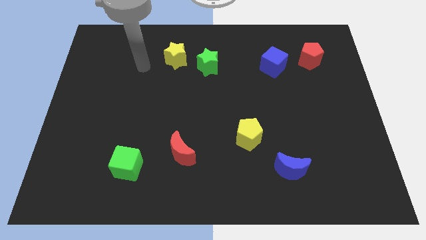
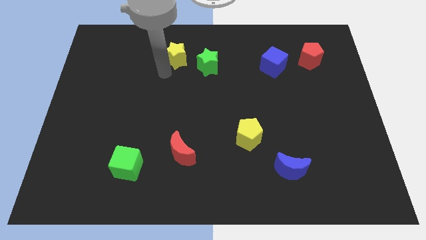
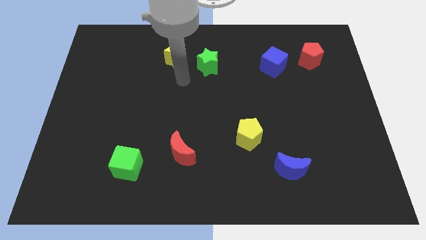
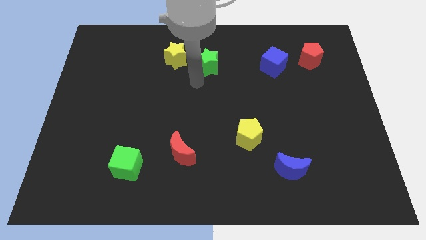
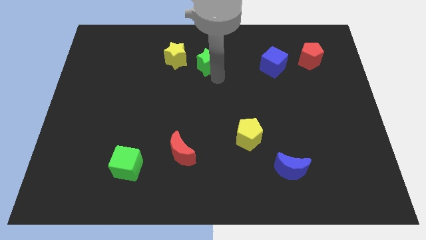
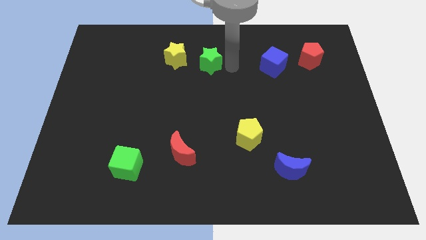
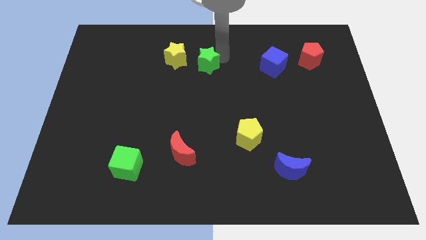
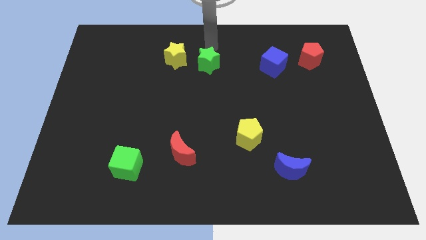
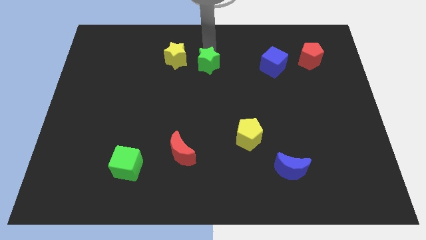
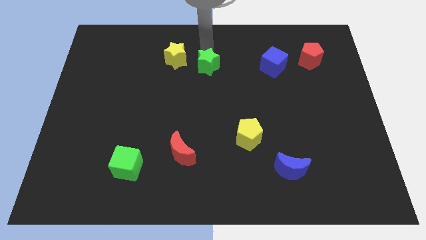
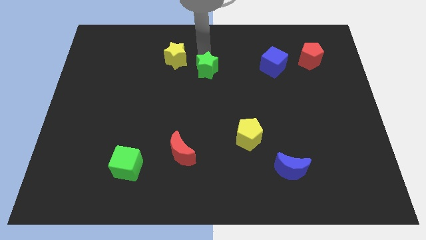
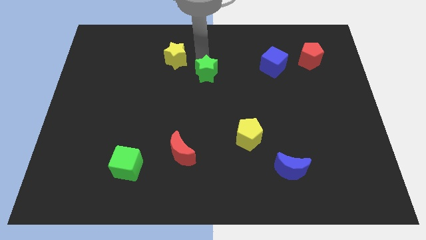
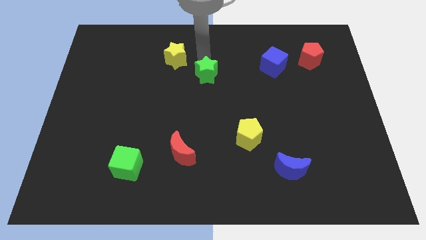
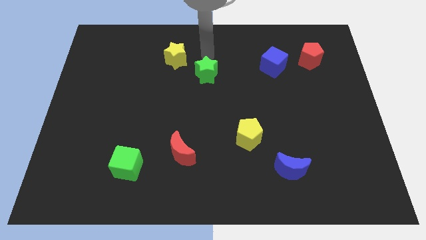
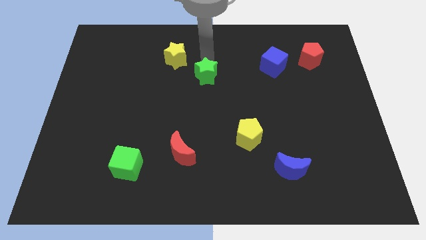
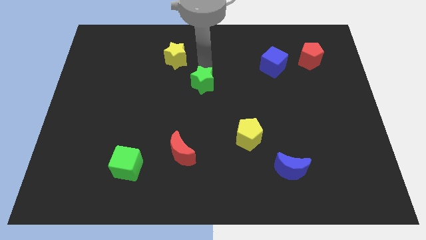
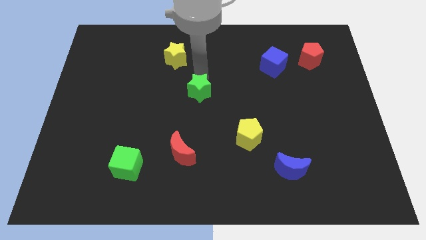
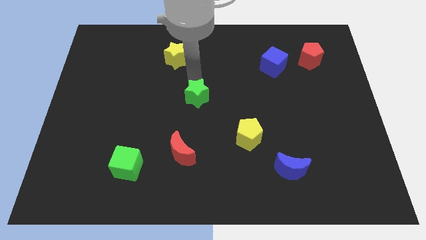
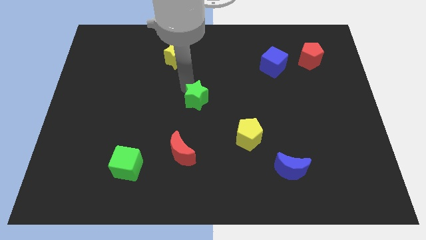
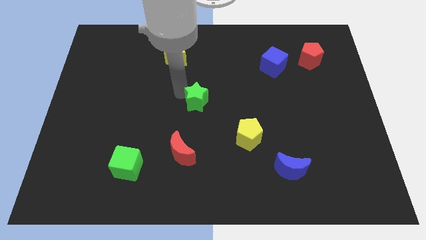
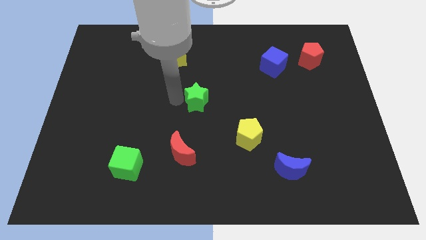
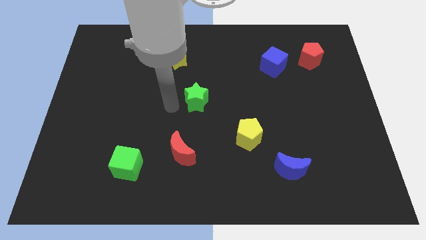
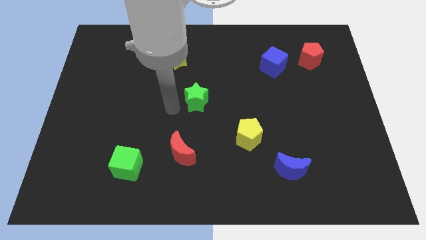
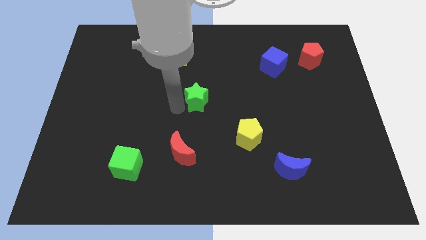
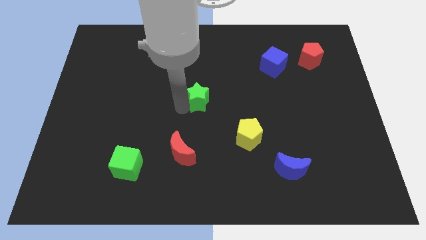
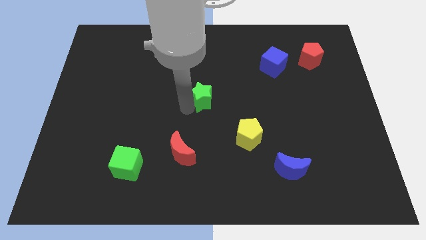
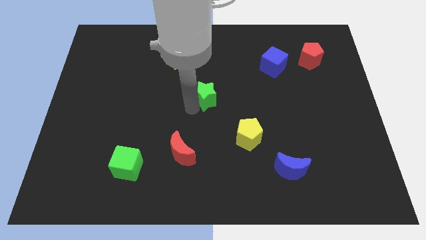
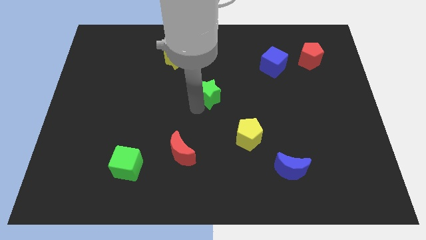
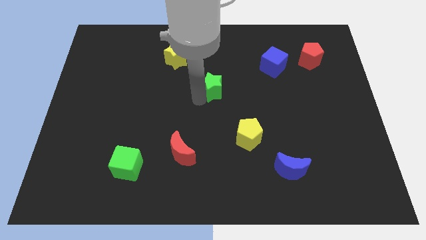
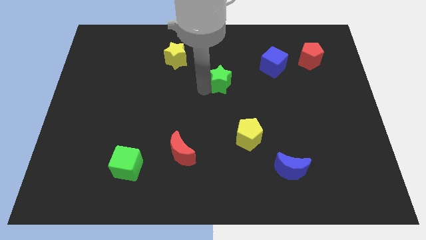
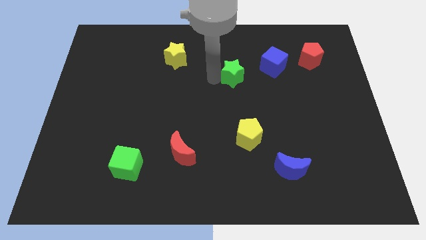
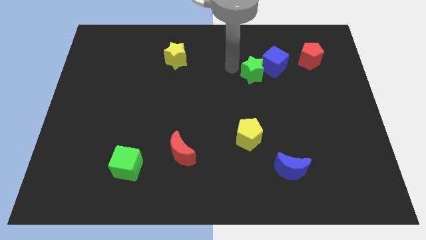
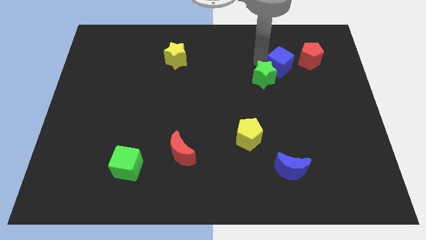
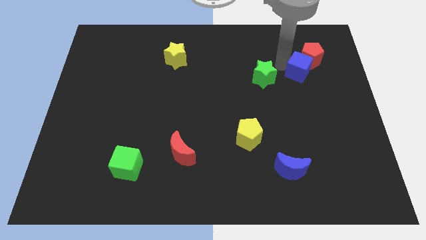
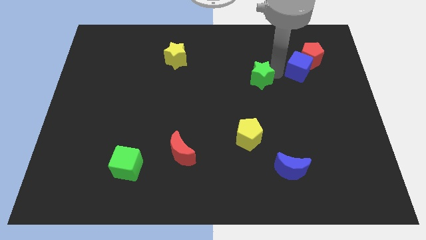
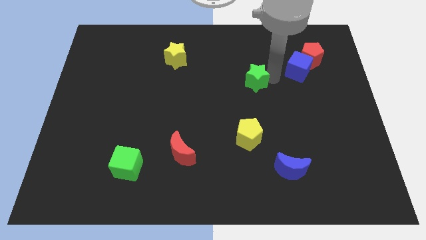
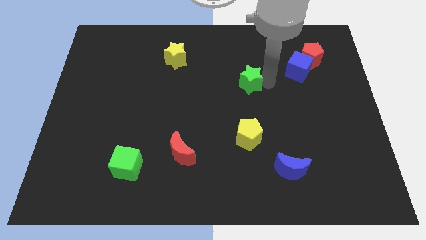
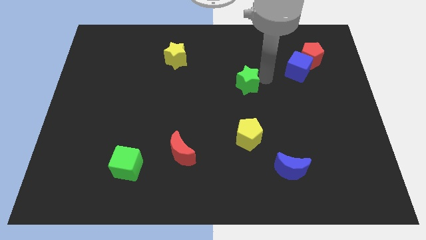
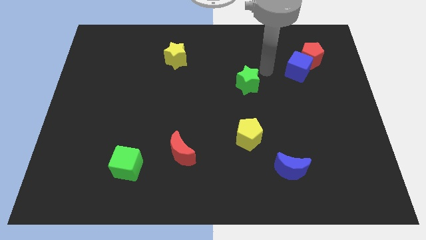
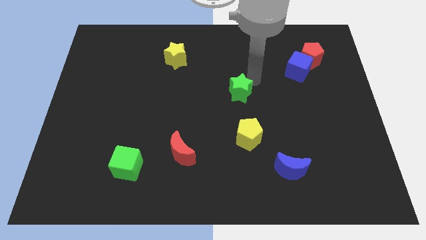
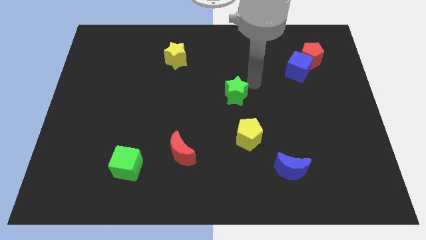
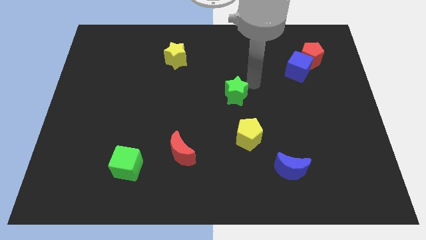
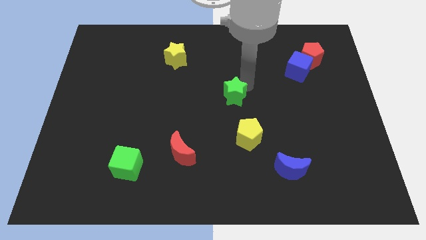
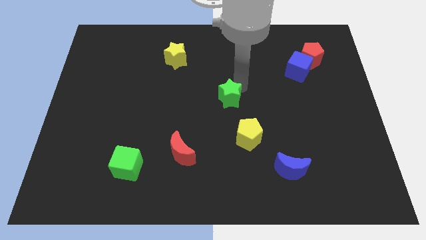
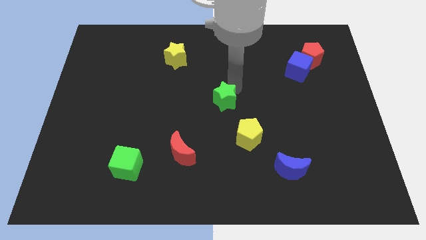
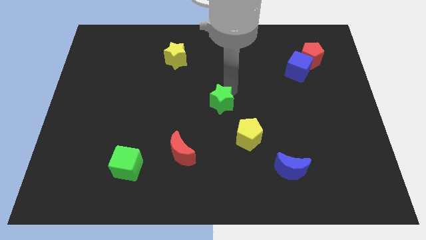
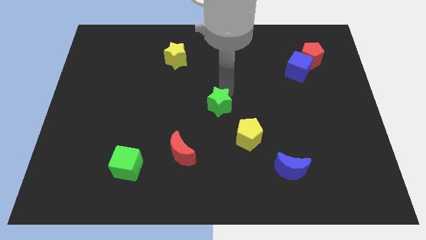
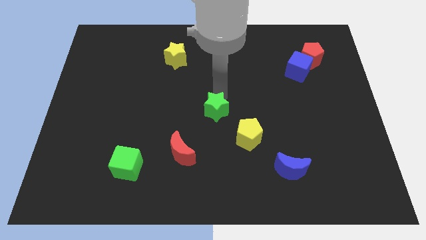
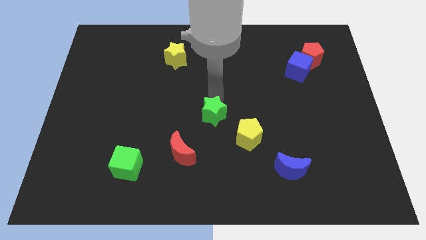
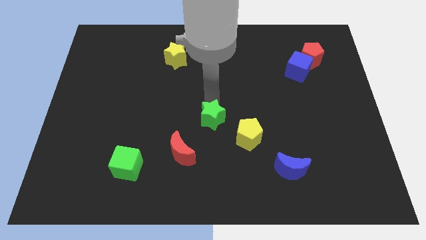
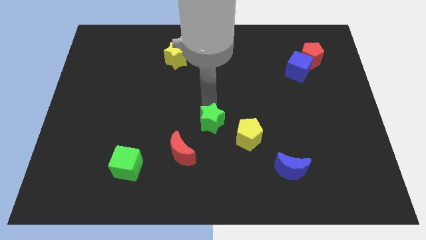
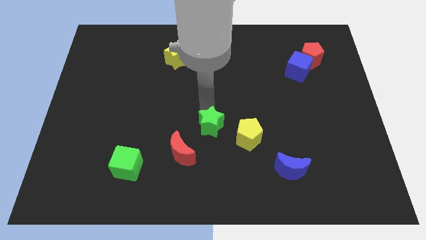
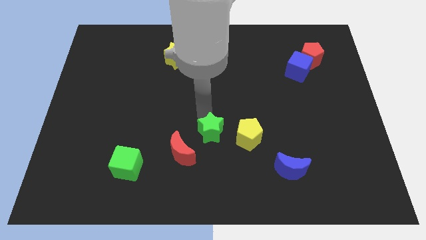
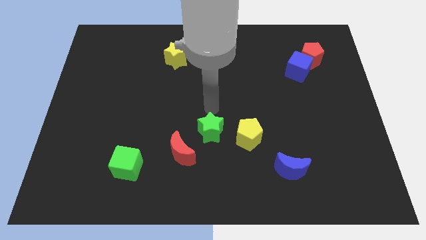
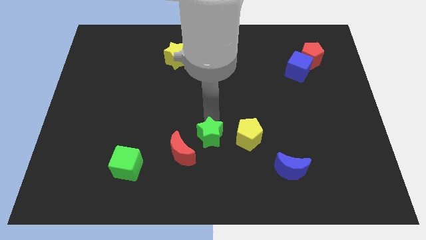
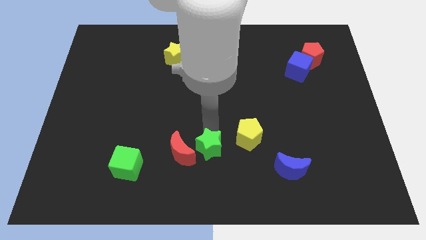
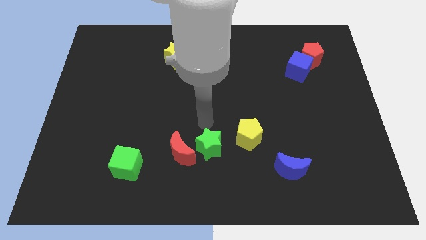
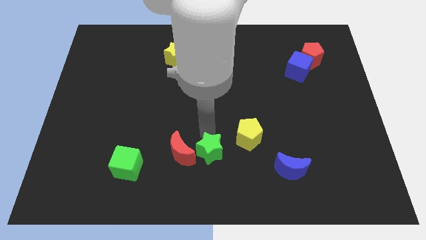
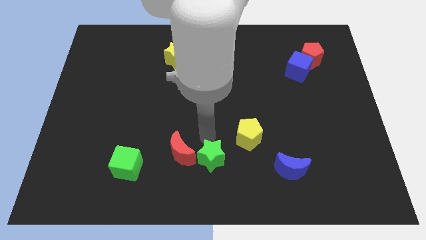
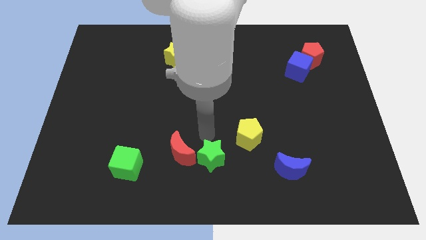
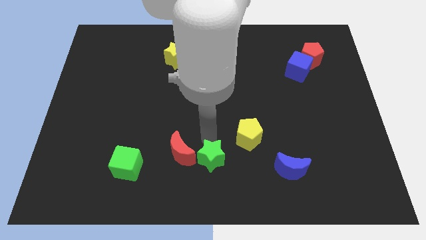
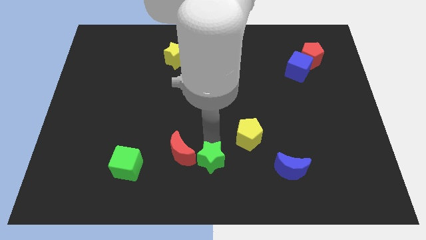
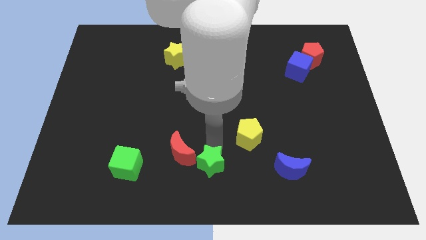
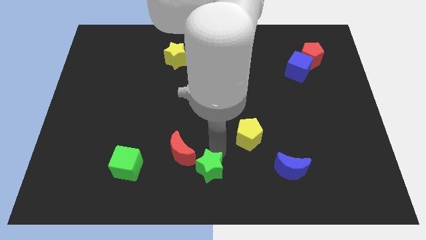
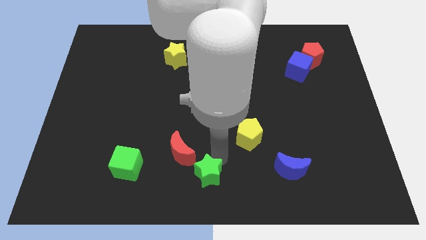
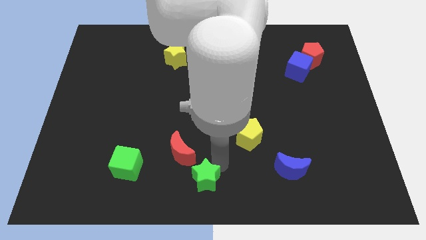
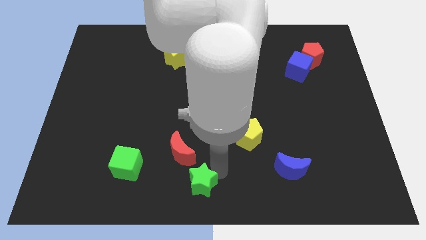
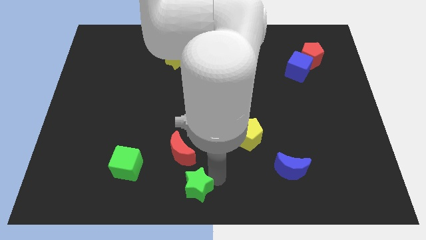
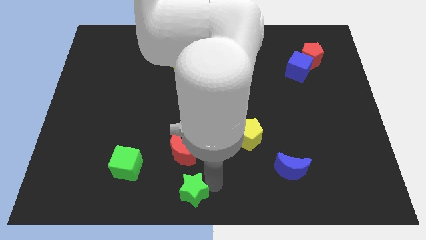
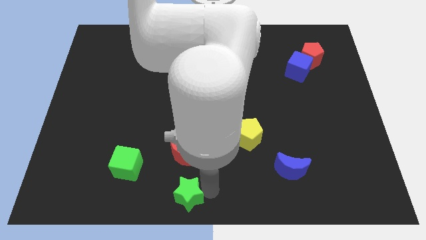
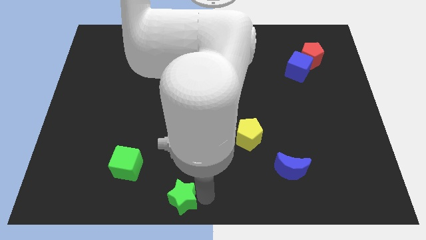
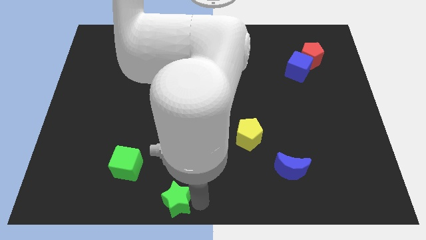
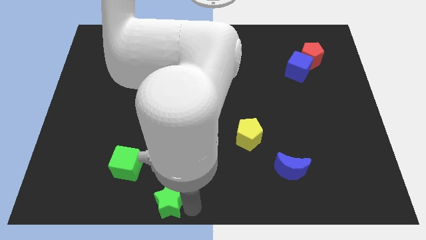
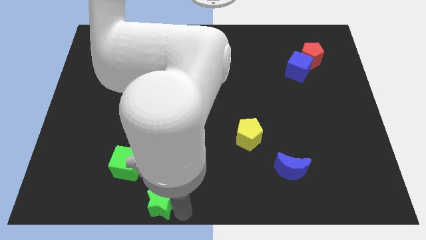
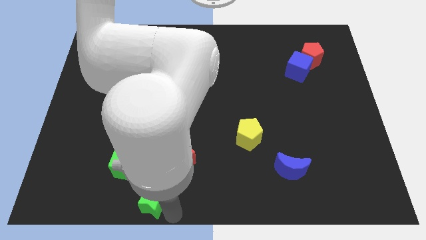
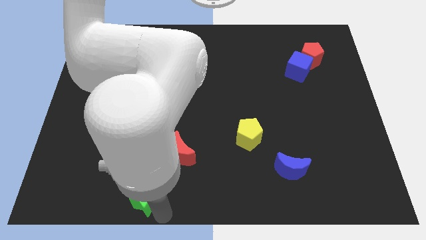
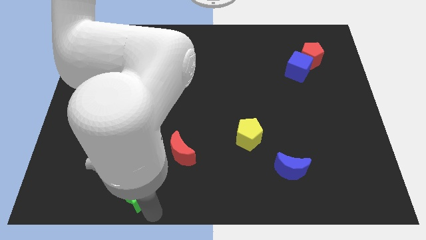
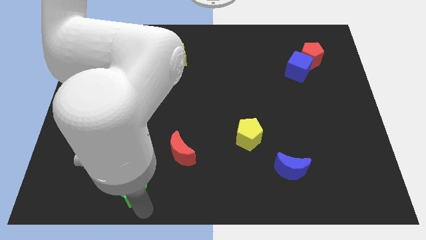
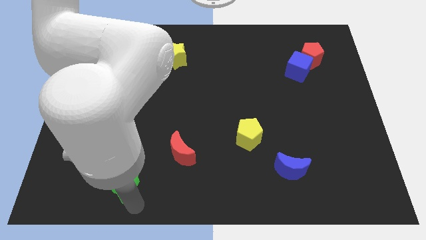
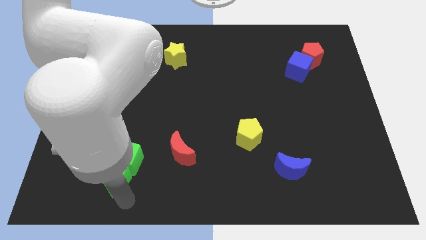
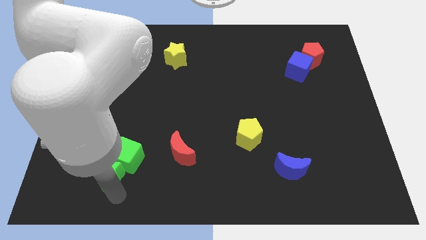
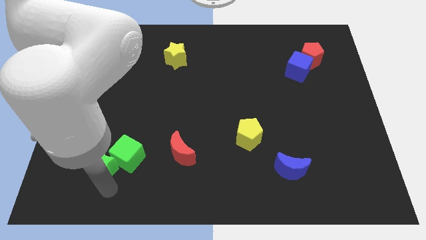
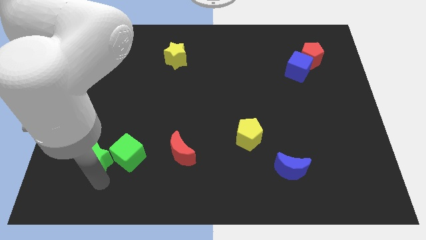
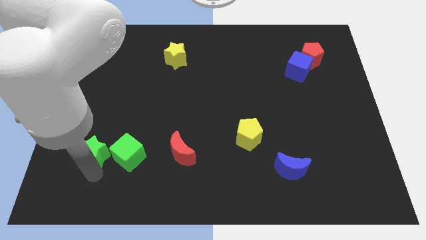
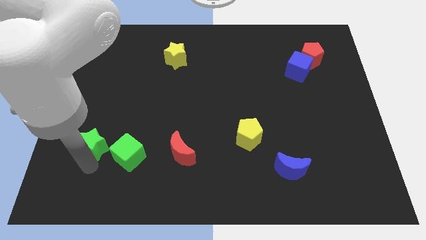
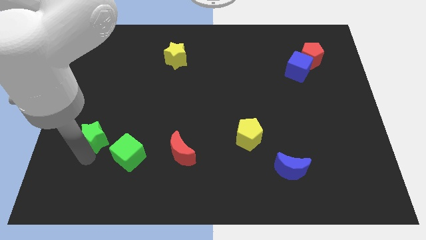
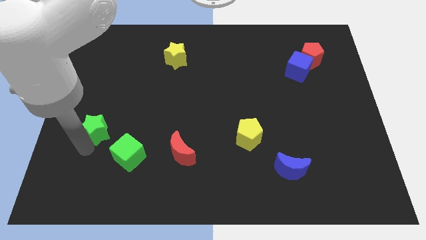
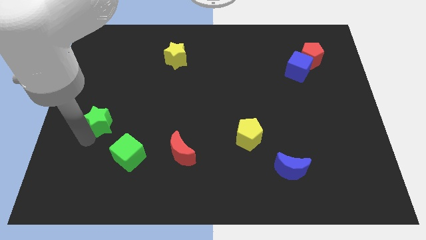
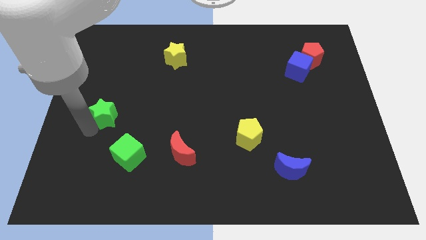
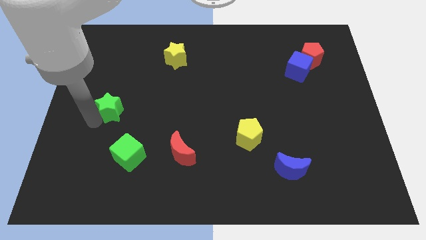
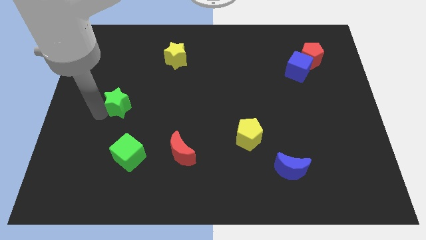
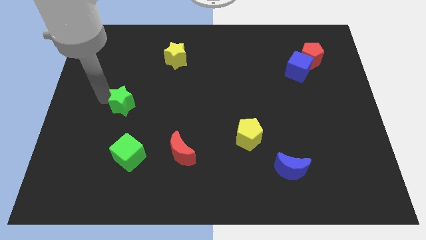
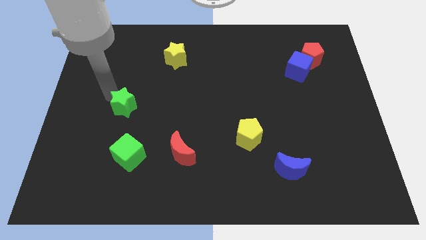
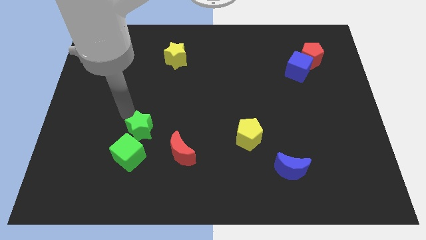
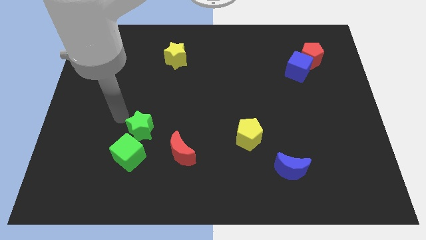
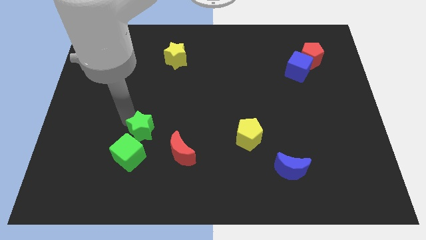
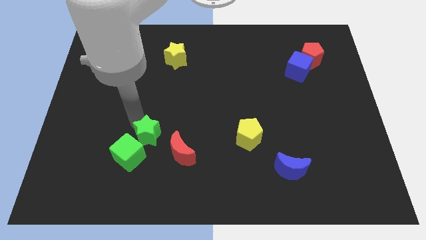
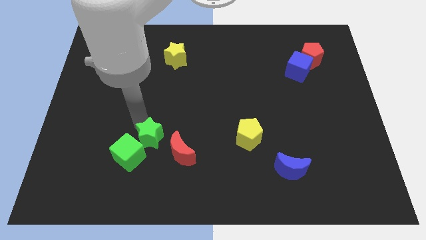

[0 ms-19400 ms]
slide the green star to the right of the green cube
